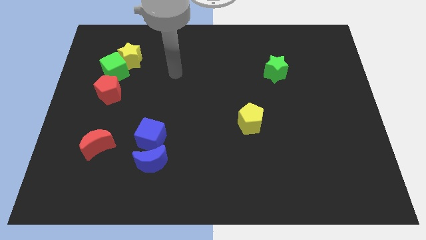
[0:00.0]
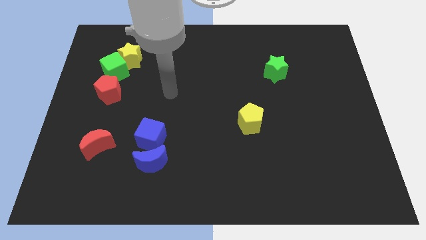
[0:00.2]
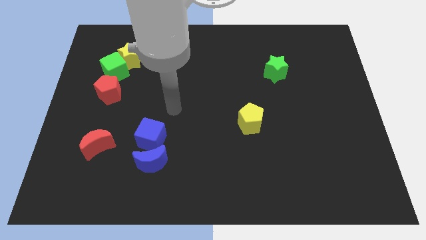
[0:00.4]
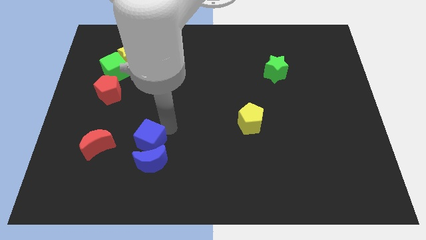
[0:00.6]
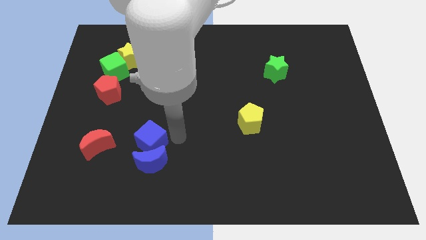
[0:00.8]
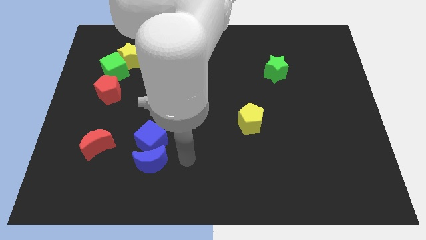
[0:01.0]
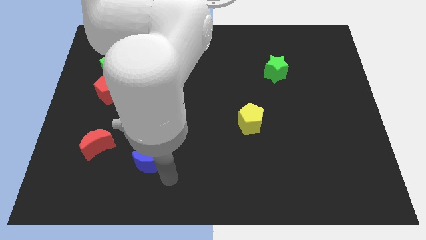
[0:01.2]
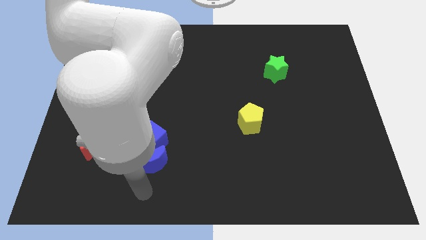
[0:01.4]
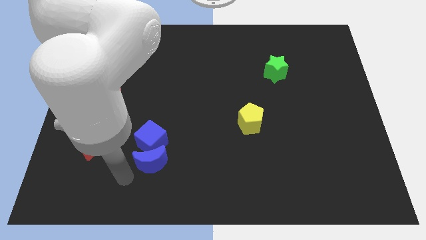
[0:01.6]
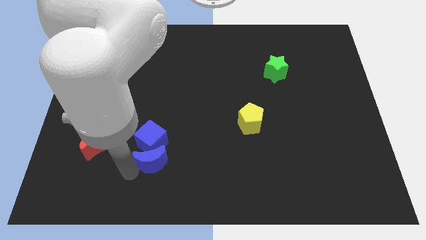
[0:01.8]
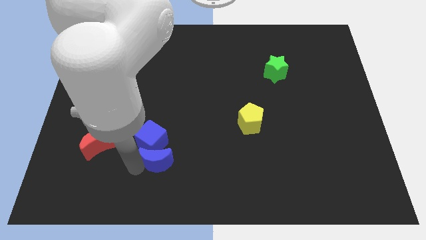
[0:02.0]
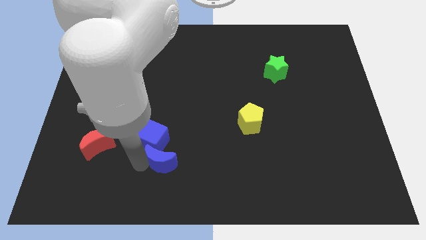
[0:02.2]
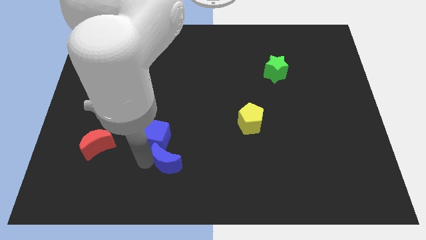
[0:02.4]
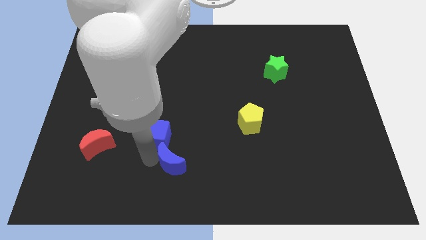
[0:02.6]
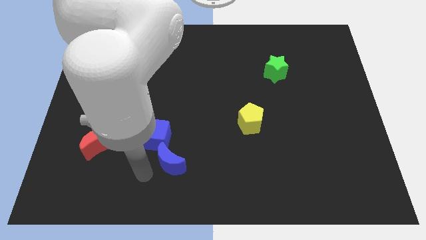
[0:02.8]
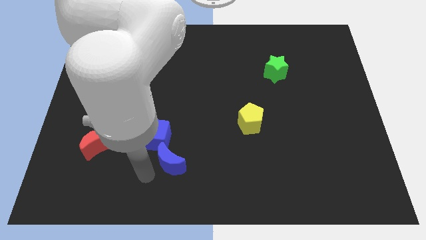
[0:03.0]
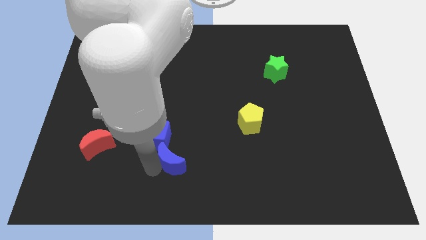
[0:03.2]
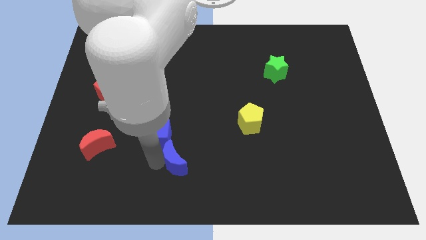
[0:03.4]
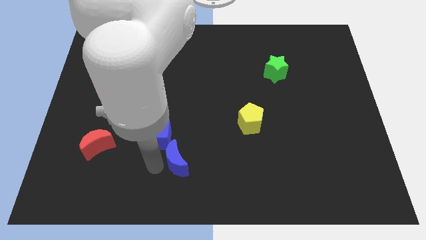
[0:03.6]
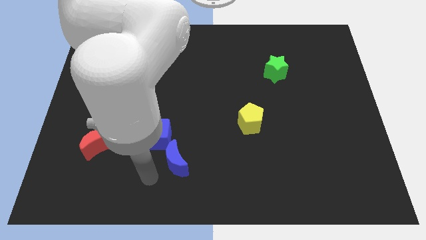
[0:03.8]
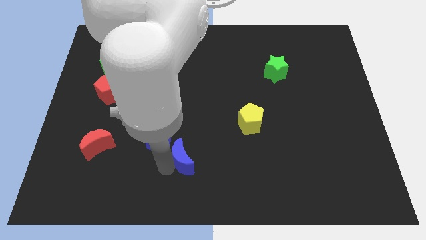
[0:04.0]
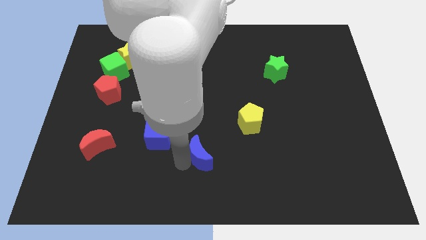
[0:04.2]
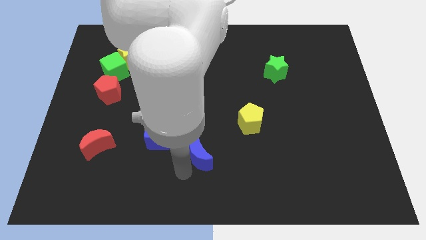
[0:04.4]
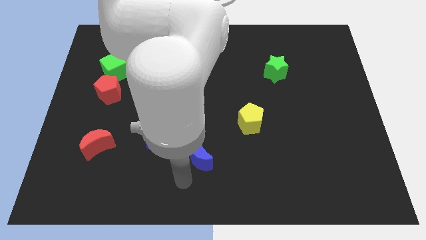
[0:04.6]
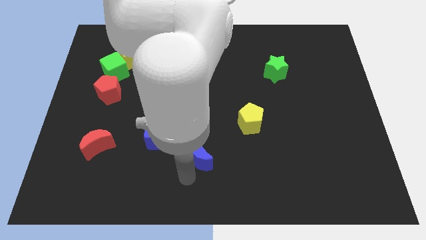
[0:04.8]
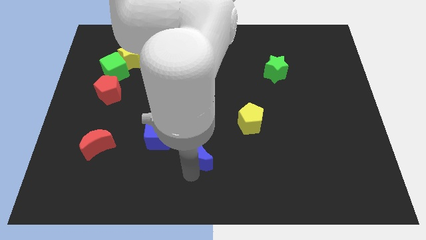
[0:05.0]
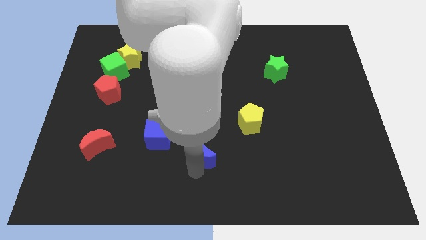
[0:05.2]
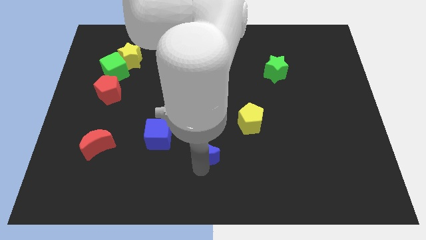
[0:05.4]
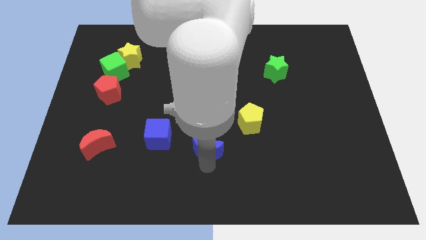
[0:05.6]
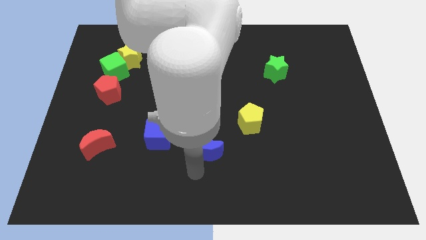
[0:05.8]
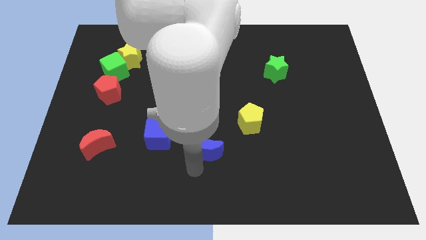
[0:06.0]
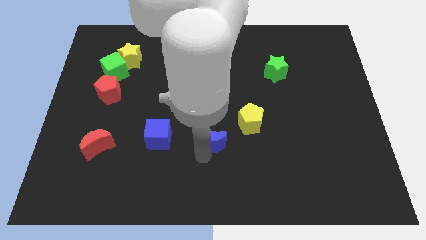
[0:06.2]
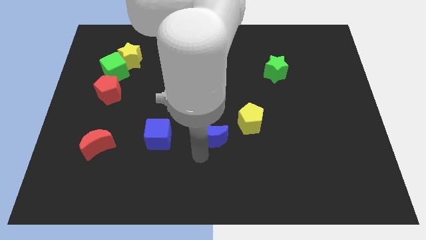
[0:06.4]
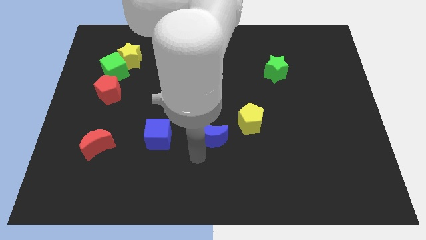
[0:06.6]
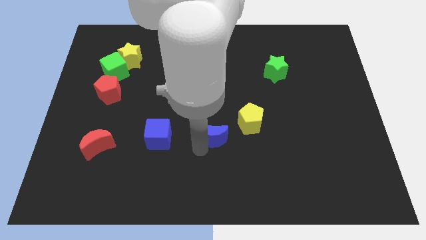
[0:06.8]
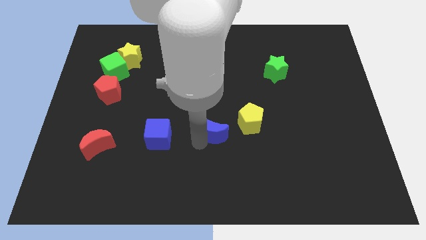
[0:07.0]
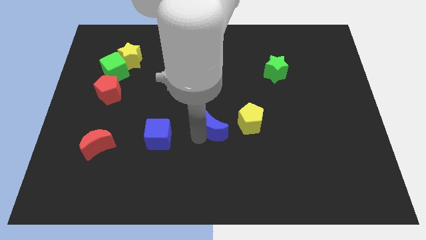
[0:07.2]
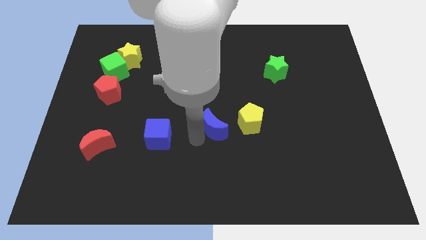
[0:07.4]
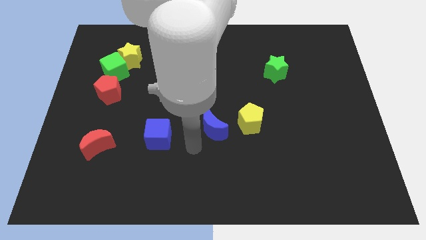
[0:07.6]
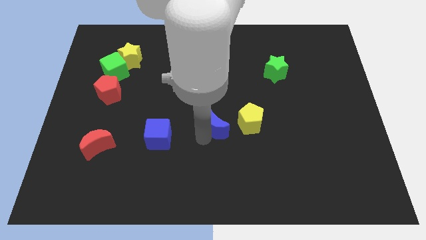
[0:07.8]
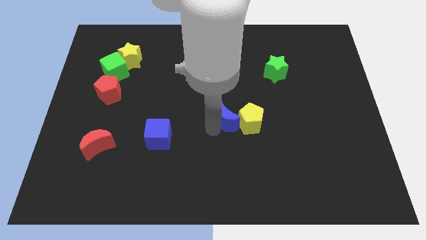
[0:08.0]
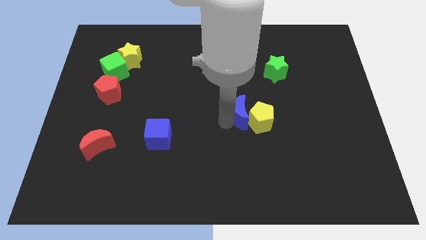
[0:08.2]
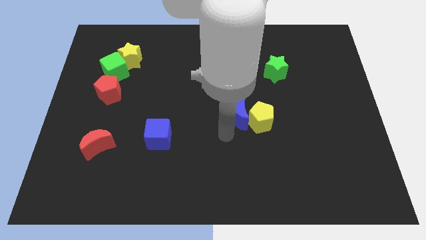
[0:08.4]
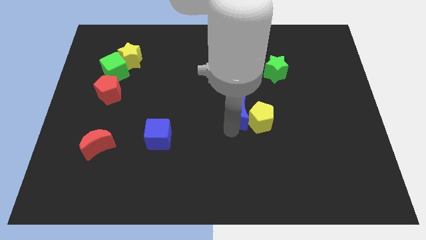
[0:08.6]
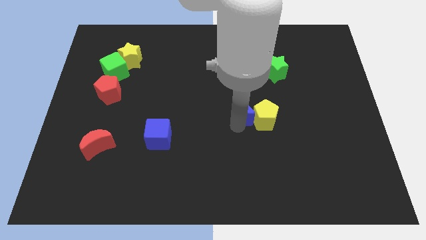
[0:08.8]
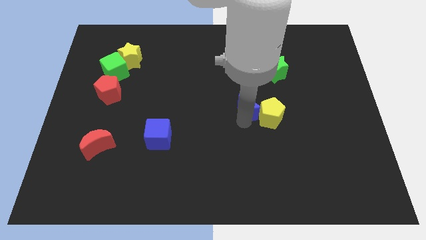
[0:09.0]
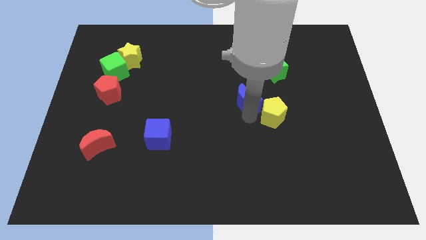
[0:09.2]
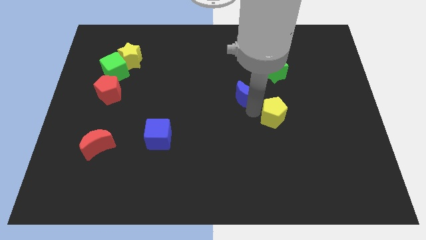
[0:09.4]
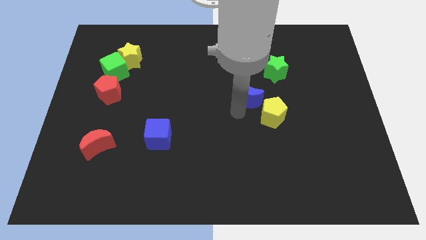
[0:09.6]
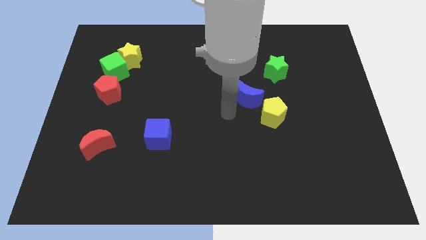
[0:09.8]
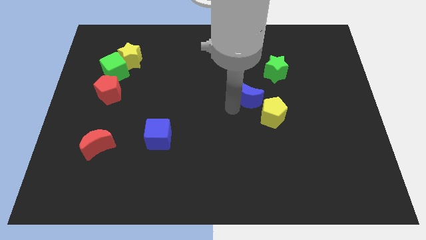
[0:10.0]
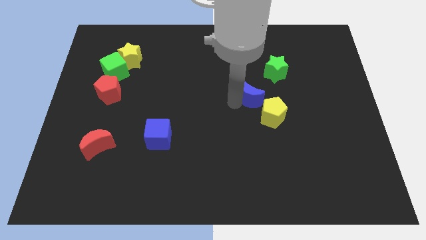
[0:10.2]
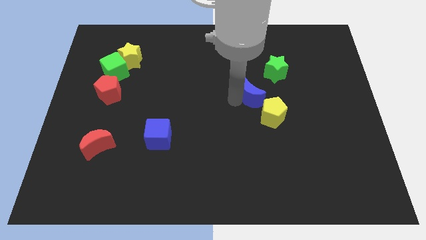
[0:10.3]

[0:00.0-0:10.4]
push the blue moon to the top of the yellow pentagon

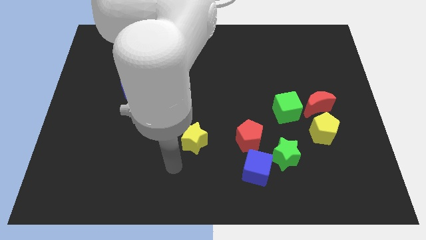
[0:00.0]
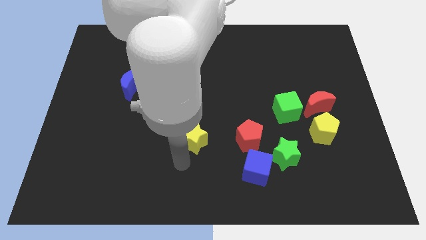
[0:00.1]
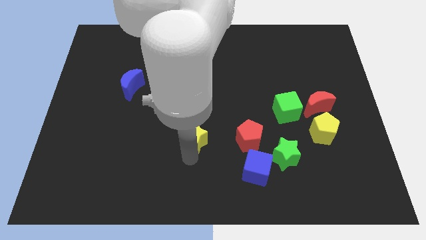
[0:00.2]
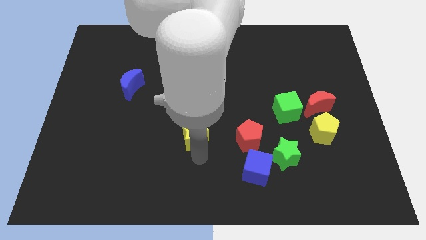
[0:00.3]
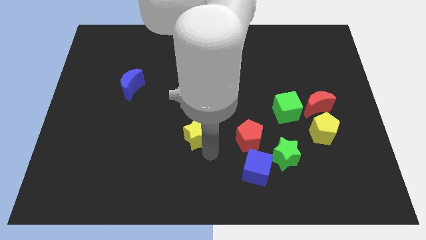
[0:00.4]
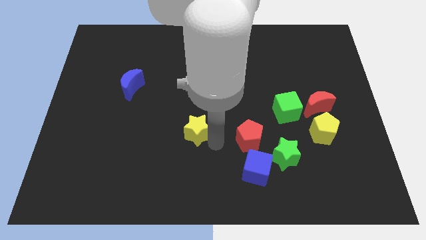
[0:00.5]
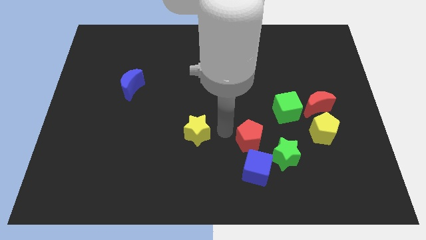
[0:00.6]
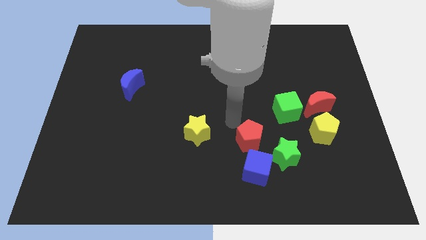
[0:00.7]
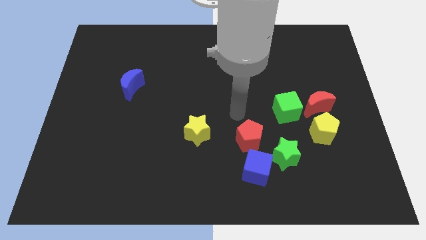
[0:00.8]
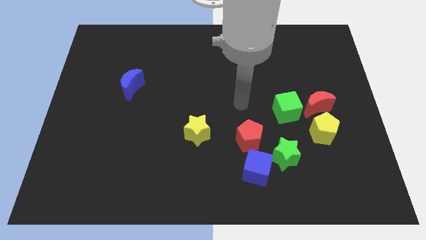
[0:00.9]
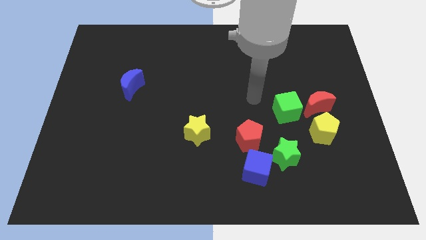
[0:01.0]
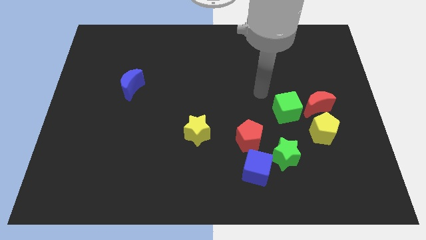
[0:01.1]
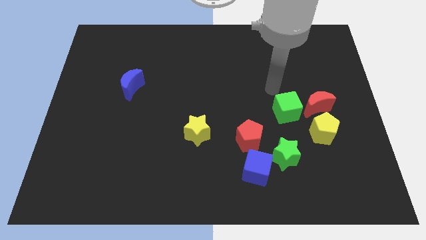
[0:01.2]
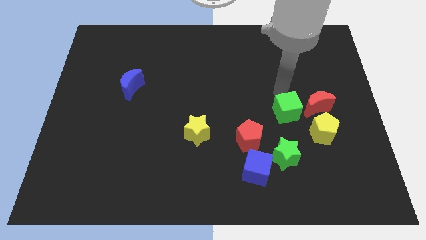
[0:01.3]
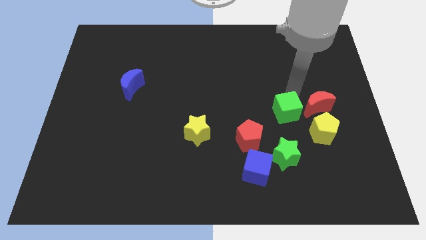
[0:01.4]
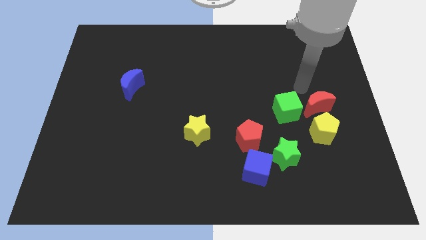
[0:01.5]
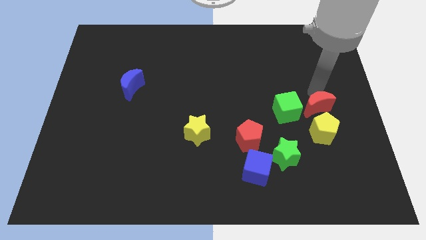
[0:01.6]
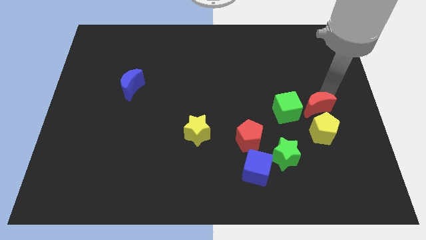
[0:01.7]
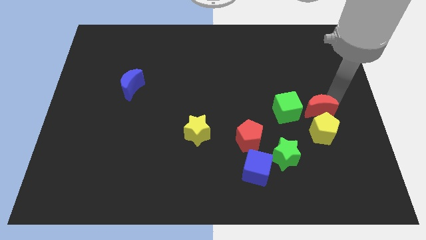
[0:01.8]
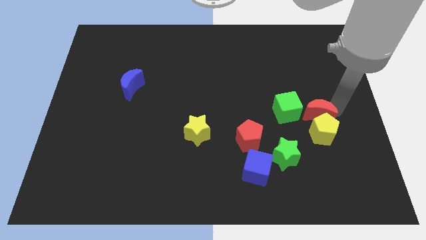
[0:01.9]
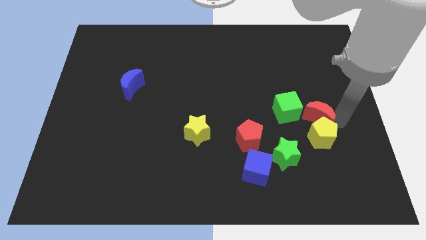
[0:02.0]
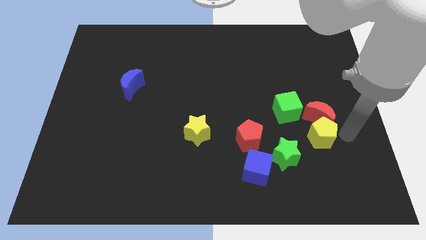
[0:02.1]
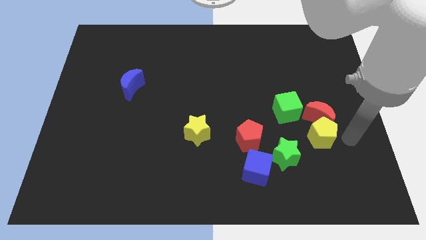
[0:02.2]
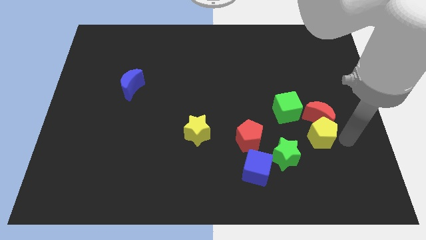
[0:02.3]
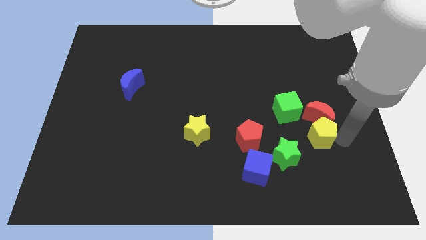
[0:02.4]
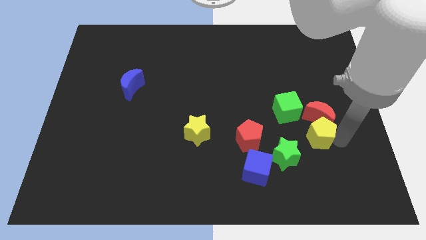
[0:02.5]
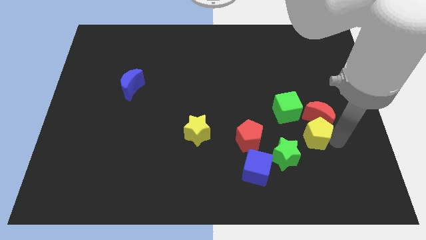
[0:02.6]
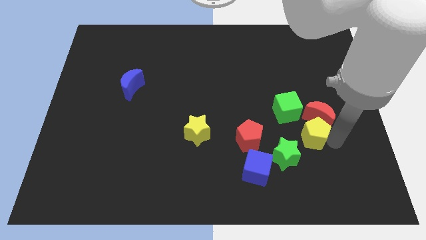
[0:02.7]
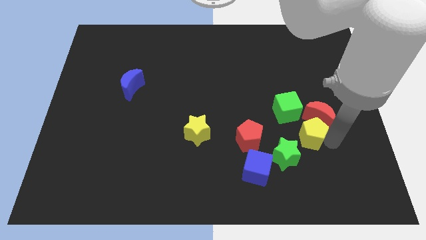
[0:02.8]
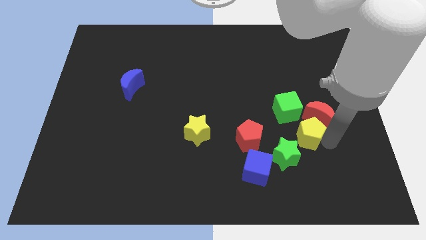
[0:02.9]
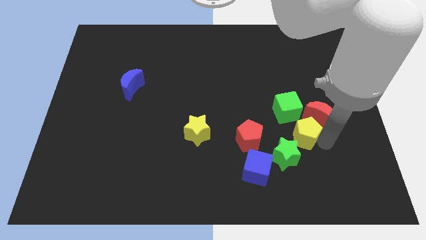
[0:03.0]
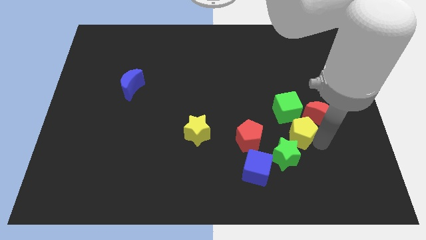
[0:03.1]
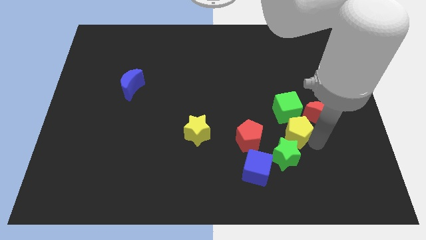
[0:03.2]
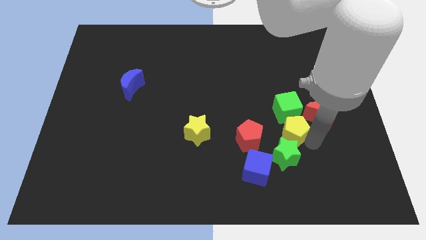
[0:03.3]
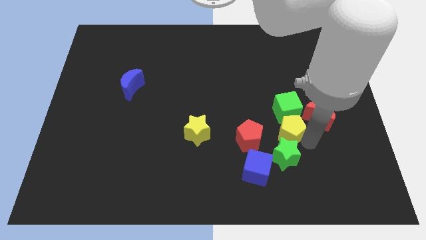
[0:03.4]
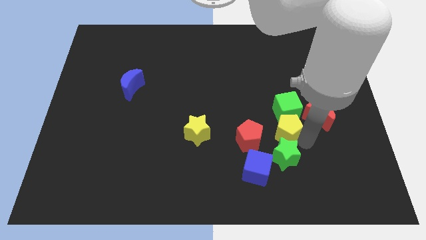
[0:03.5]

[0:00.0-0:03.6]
put the yellow pentagon diagonally up and to the right of the red pentagon
